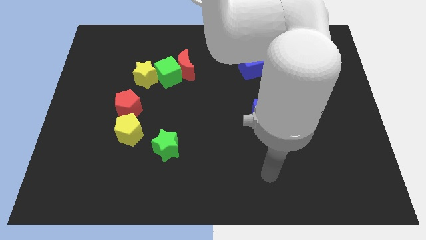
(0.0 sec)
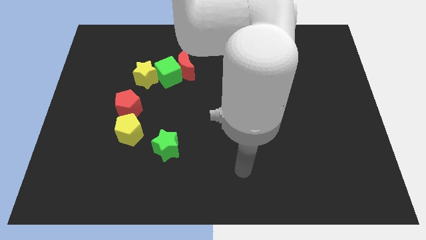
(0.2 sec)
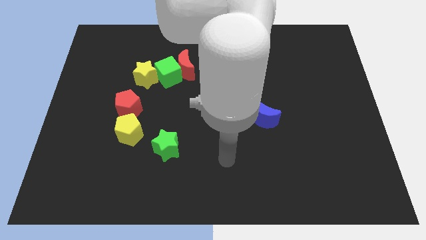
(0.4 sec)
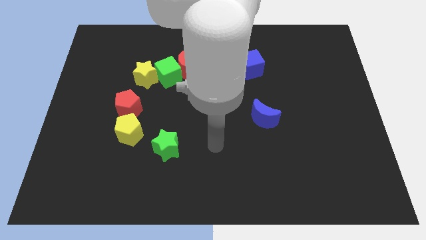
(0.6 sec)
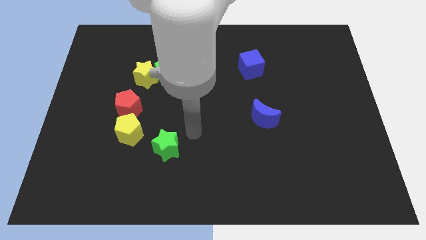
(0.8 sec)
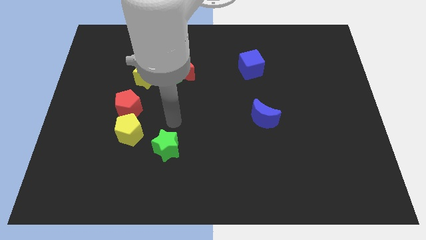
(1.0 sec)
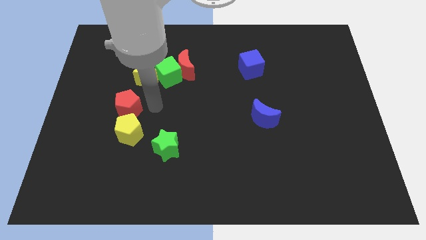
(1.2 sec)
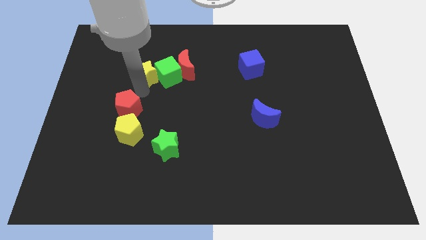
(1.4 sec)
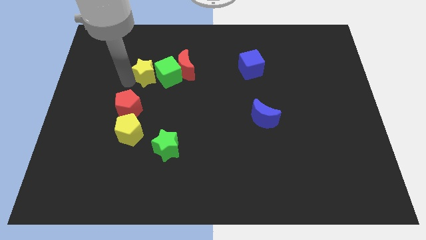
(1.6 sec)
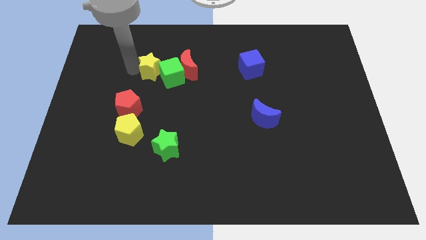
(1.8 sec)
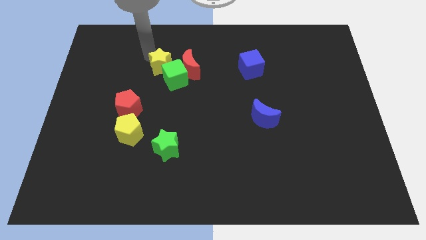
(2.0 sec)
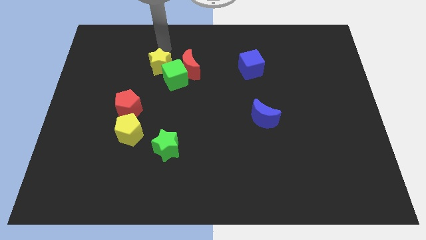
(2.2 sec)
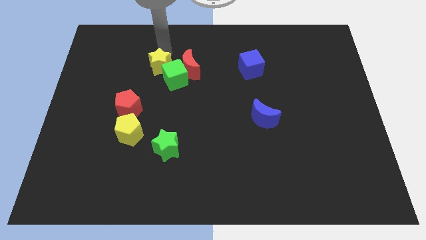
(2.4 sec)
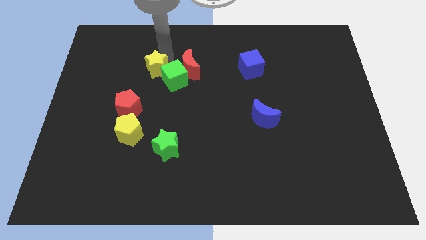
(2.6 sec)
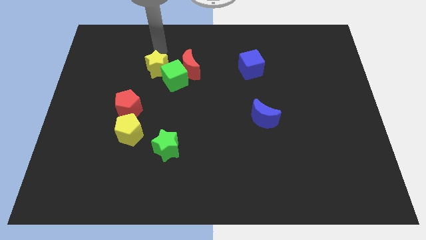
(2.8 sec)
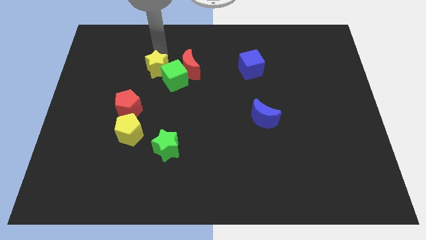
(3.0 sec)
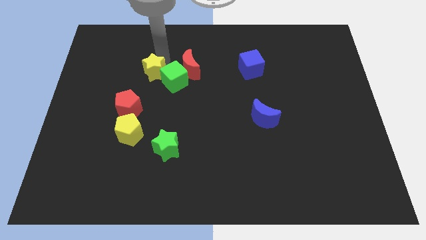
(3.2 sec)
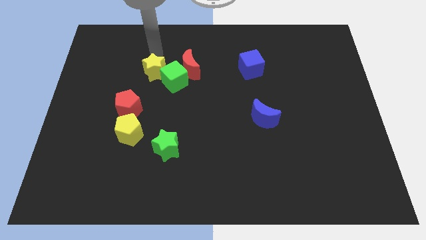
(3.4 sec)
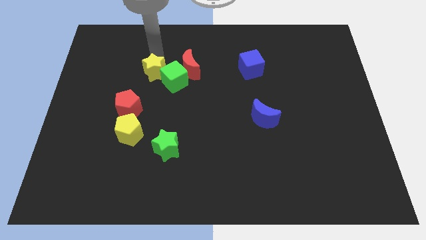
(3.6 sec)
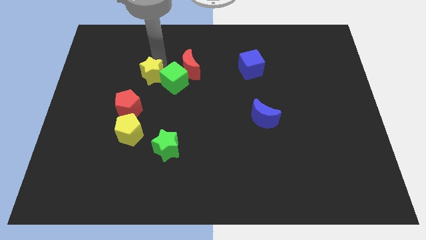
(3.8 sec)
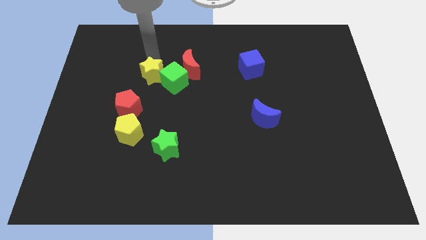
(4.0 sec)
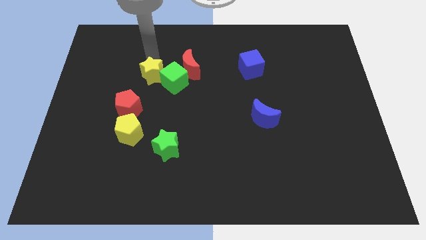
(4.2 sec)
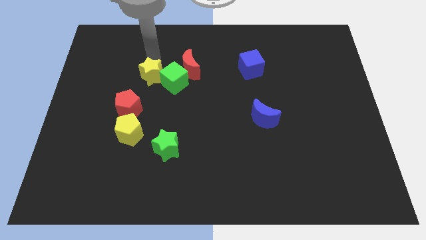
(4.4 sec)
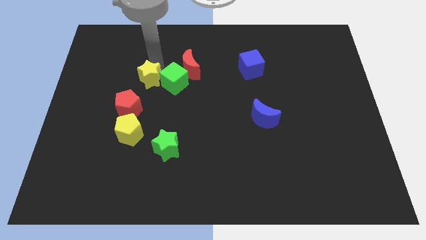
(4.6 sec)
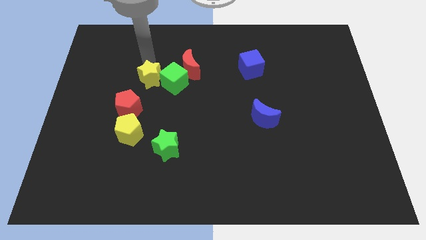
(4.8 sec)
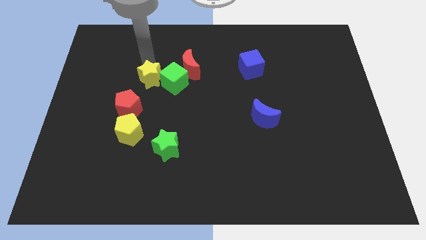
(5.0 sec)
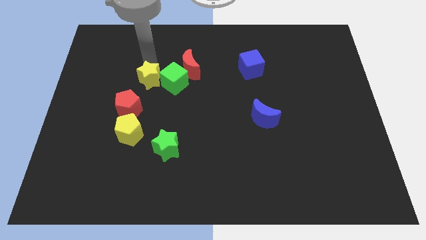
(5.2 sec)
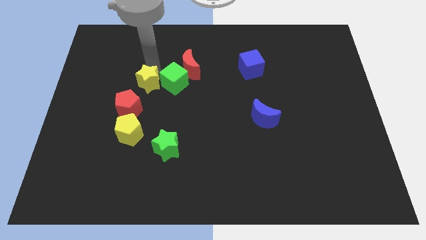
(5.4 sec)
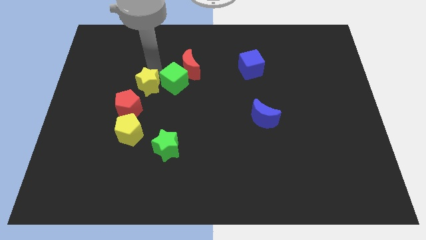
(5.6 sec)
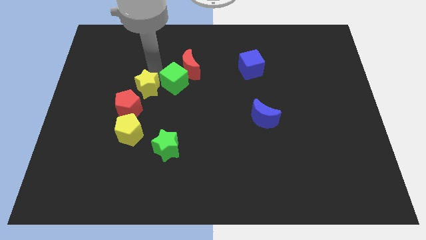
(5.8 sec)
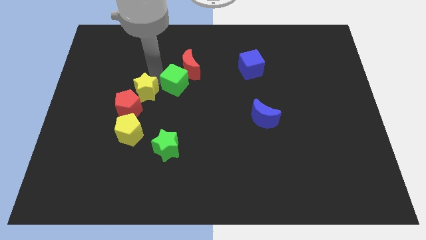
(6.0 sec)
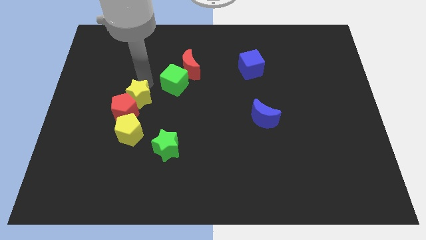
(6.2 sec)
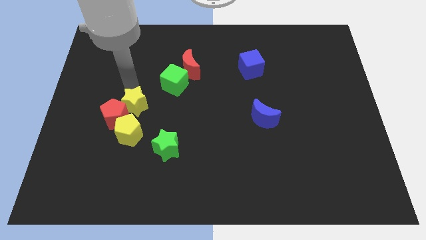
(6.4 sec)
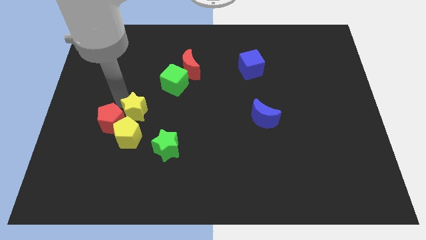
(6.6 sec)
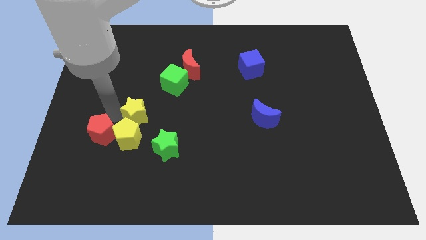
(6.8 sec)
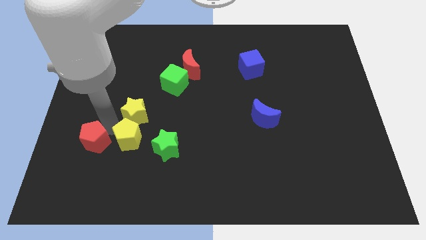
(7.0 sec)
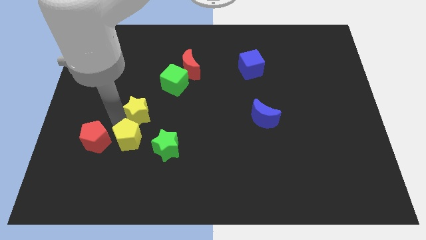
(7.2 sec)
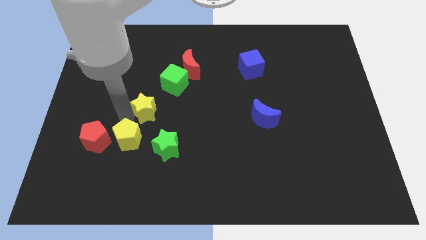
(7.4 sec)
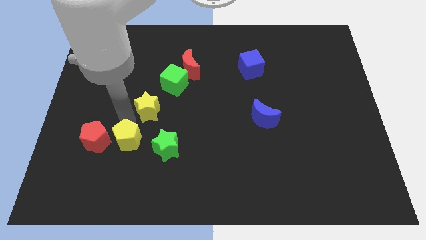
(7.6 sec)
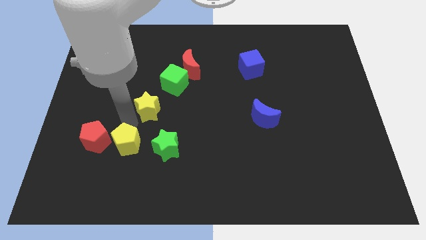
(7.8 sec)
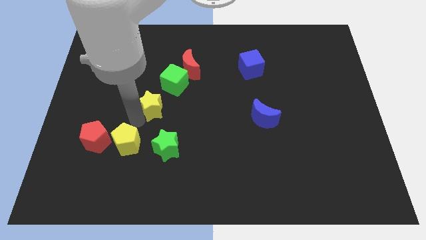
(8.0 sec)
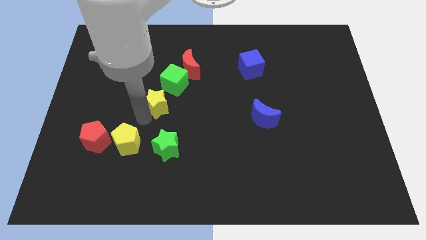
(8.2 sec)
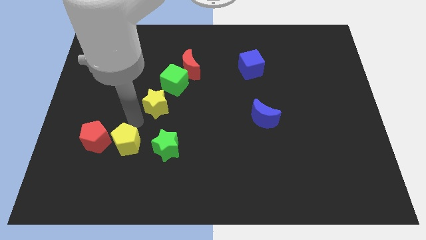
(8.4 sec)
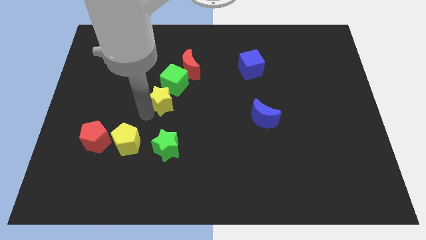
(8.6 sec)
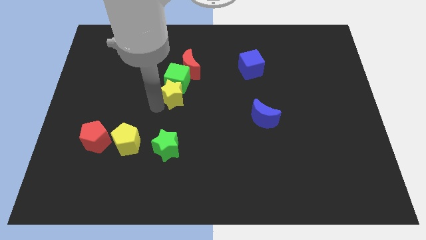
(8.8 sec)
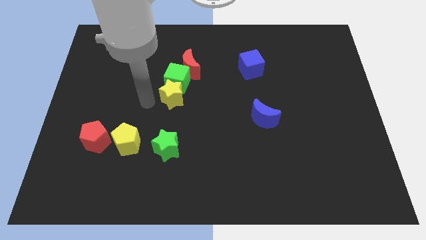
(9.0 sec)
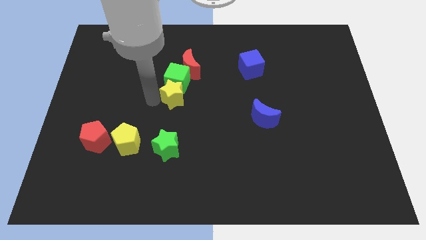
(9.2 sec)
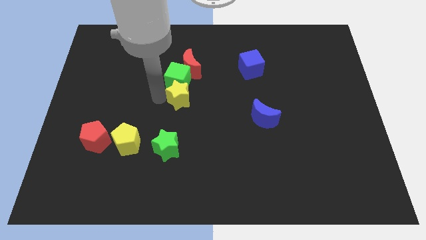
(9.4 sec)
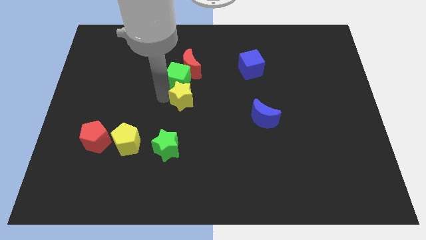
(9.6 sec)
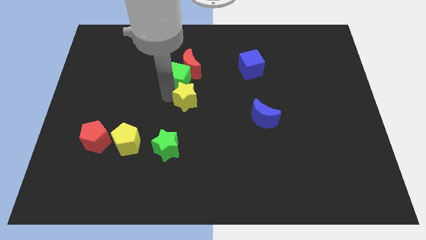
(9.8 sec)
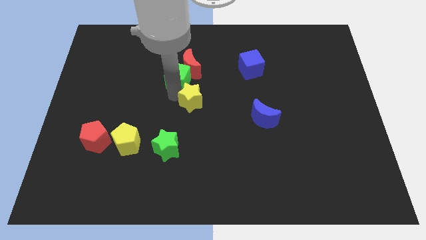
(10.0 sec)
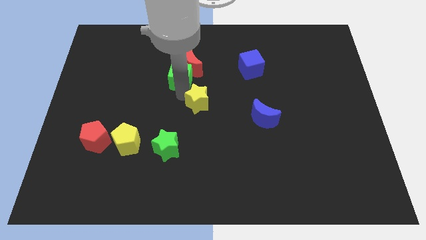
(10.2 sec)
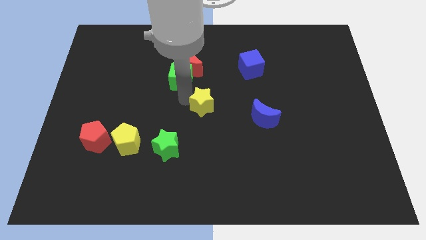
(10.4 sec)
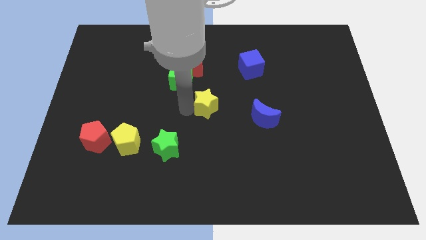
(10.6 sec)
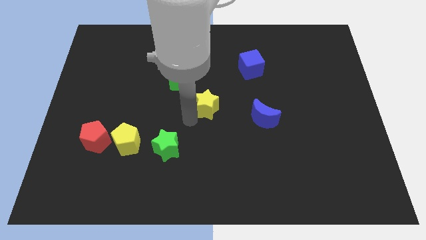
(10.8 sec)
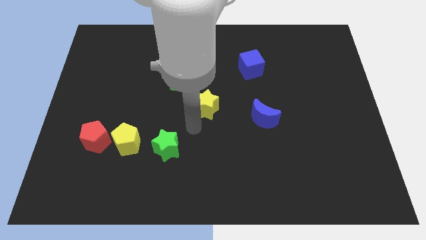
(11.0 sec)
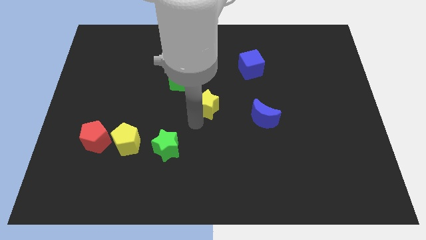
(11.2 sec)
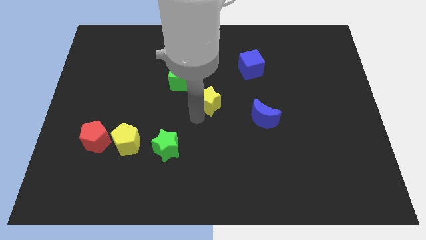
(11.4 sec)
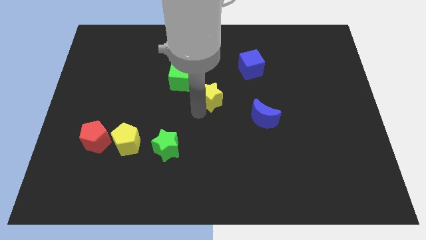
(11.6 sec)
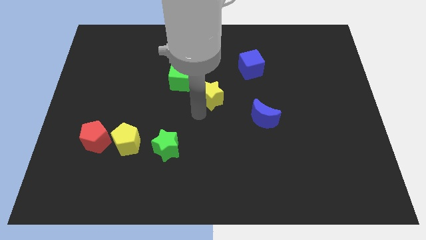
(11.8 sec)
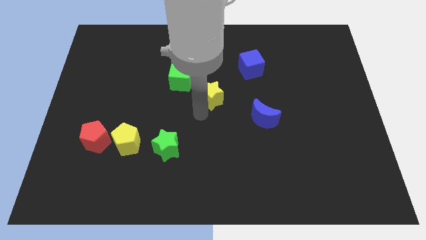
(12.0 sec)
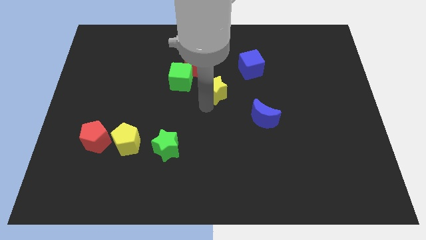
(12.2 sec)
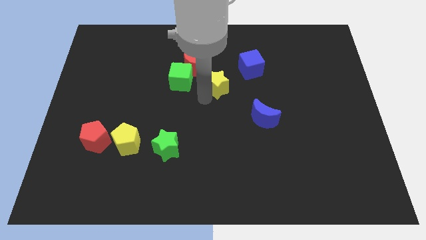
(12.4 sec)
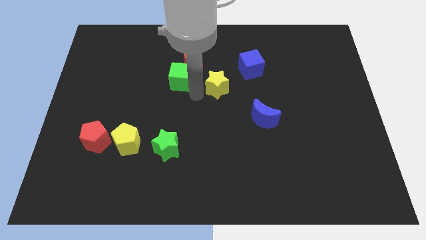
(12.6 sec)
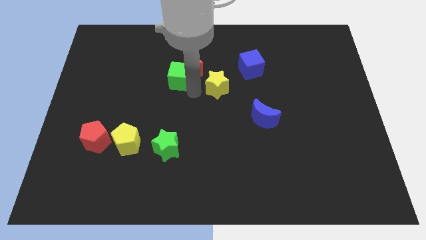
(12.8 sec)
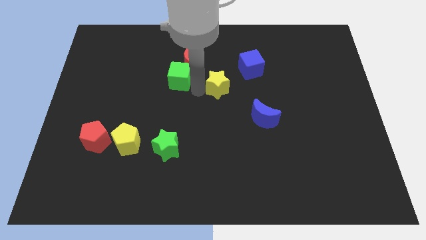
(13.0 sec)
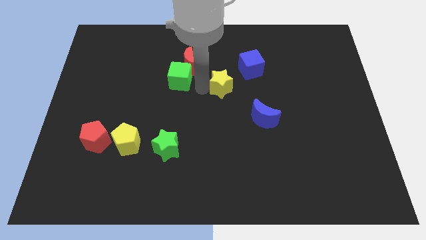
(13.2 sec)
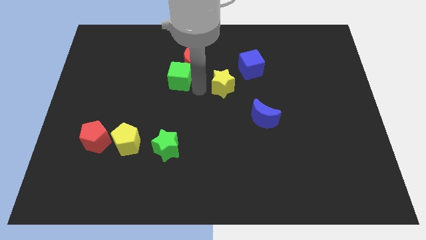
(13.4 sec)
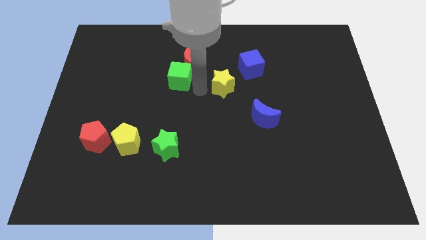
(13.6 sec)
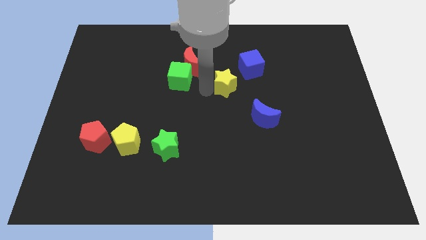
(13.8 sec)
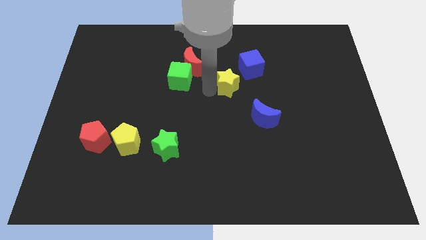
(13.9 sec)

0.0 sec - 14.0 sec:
slide the yellow star right

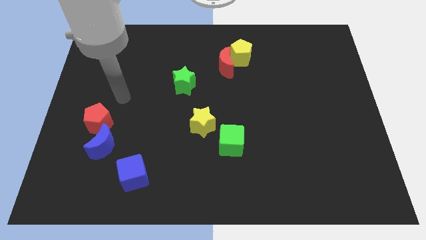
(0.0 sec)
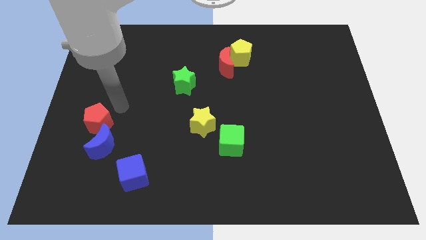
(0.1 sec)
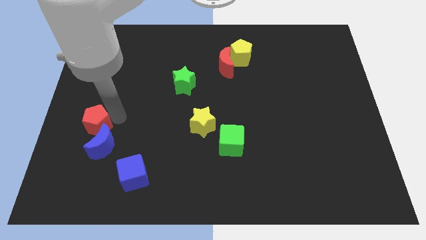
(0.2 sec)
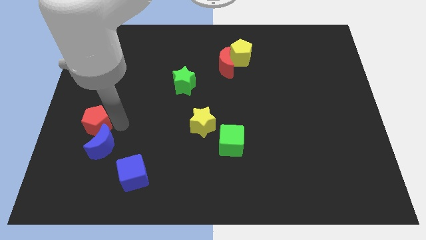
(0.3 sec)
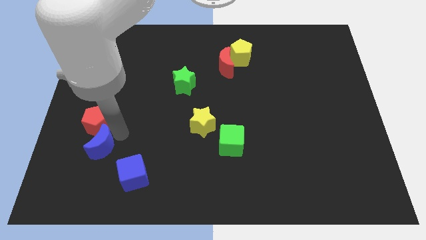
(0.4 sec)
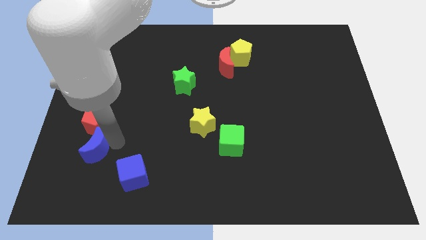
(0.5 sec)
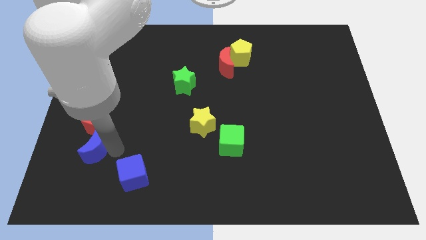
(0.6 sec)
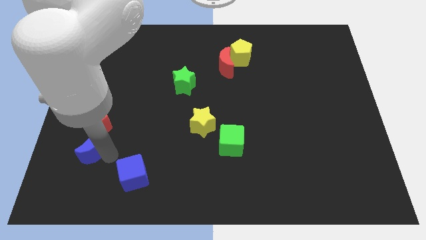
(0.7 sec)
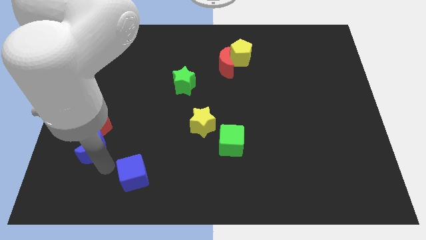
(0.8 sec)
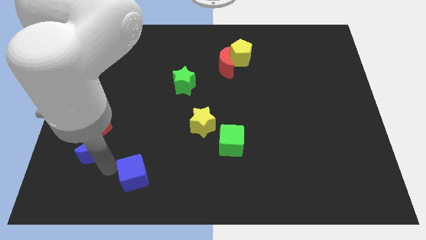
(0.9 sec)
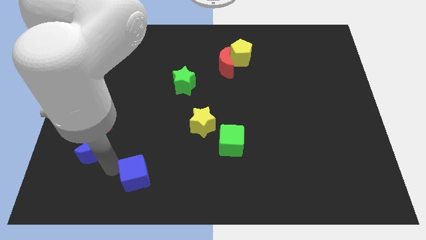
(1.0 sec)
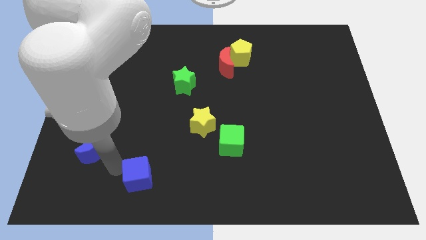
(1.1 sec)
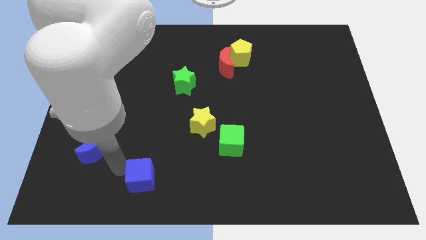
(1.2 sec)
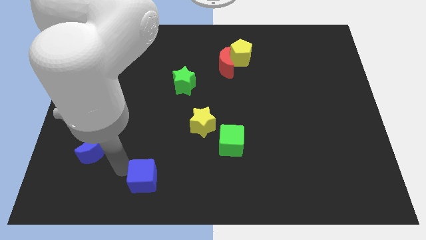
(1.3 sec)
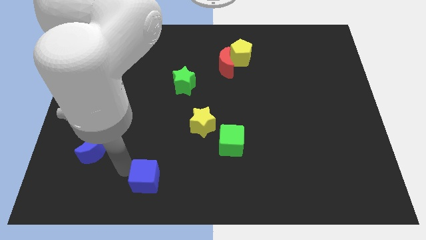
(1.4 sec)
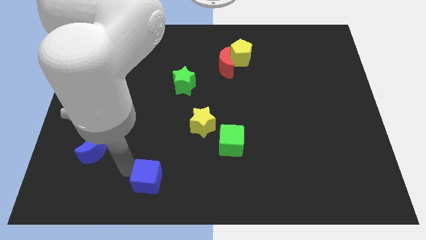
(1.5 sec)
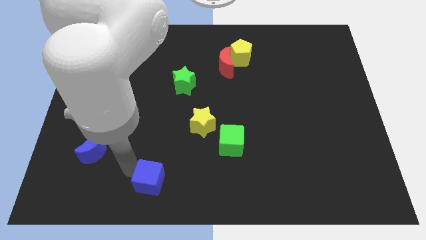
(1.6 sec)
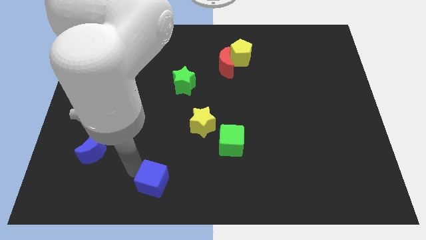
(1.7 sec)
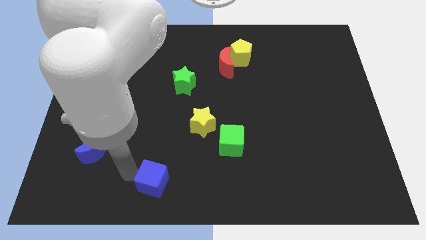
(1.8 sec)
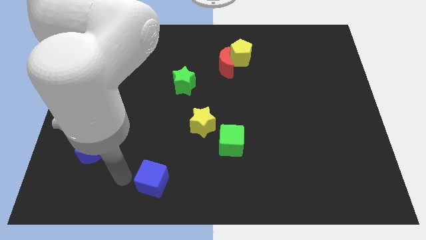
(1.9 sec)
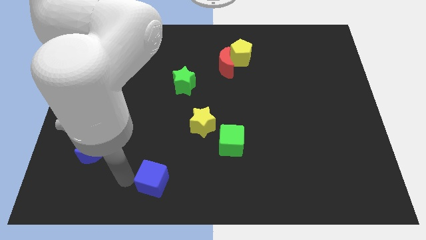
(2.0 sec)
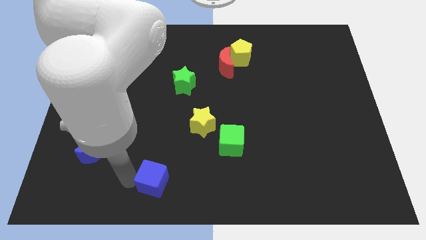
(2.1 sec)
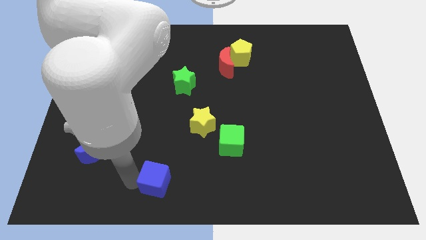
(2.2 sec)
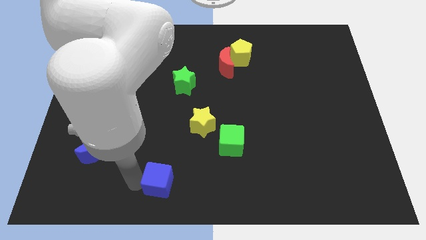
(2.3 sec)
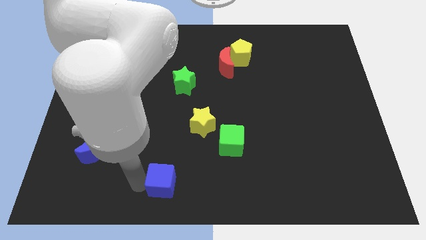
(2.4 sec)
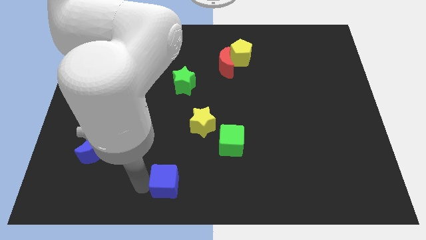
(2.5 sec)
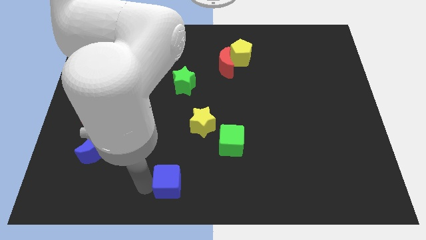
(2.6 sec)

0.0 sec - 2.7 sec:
slightly move the blue cube right
